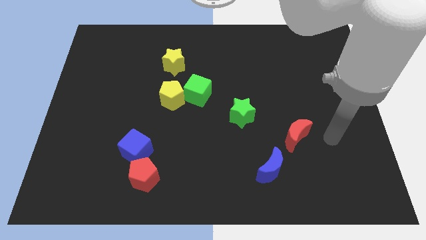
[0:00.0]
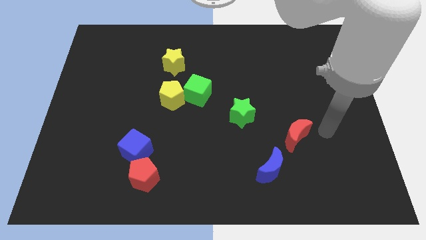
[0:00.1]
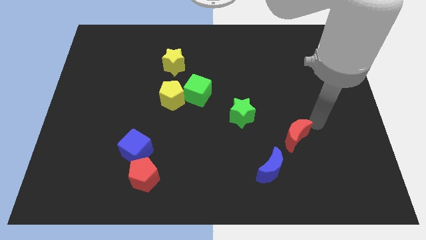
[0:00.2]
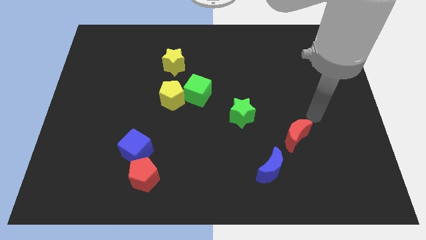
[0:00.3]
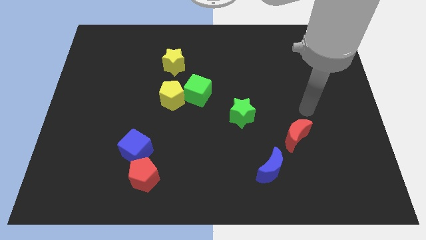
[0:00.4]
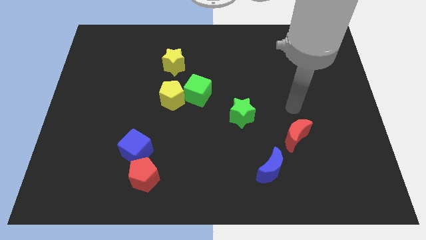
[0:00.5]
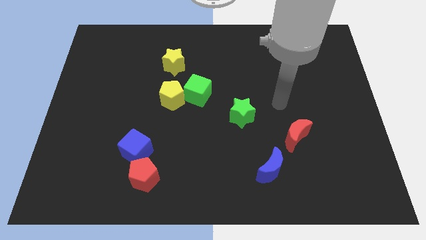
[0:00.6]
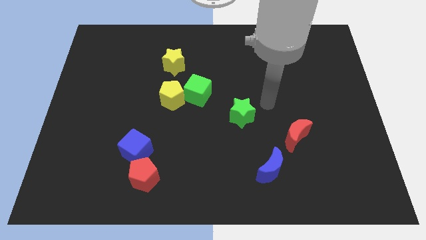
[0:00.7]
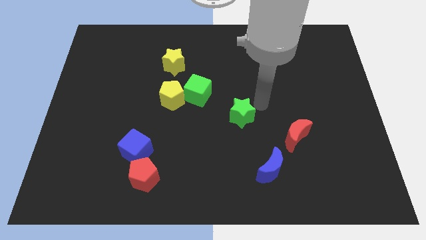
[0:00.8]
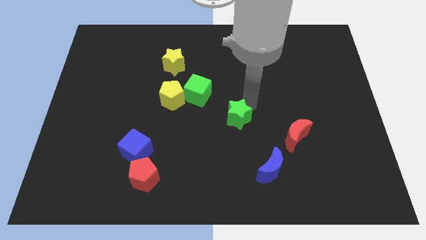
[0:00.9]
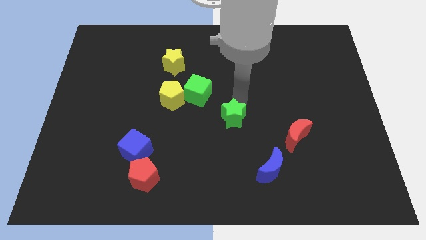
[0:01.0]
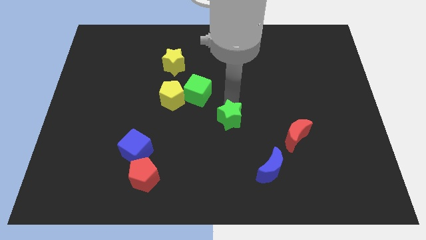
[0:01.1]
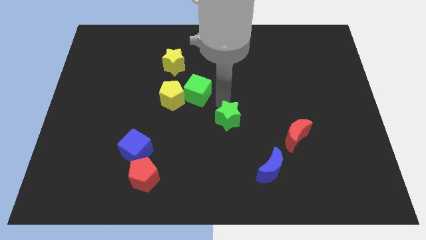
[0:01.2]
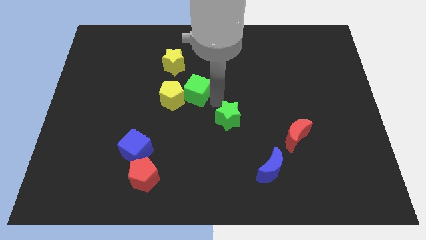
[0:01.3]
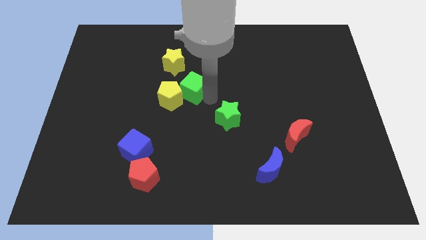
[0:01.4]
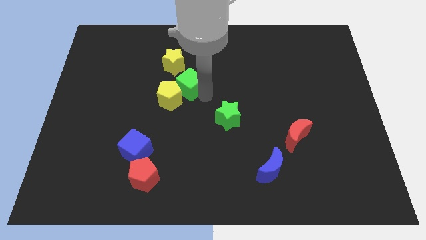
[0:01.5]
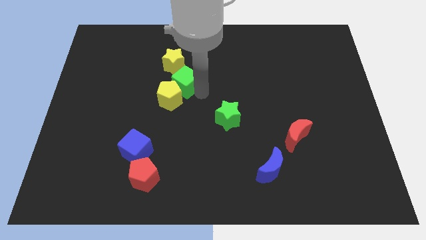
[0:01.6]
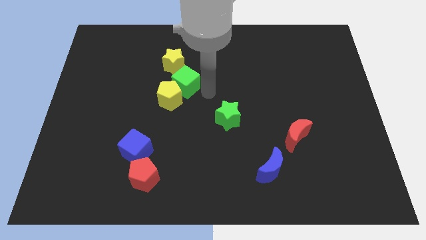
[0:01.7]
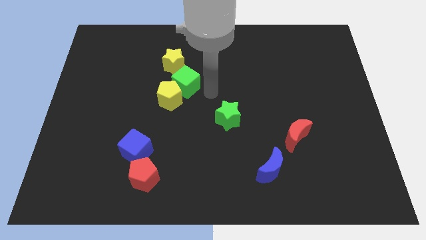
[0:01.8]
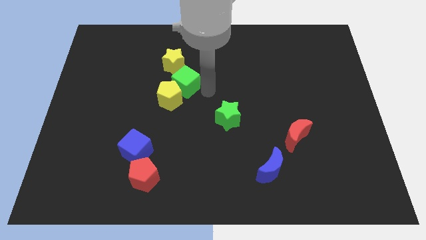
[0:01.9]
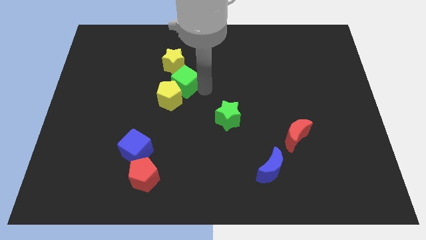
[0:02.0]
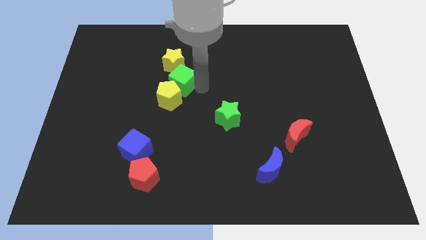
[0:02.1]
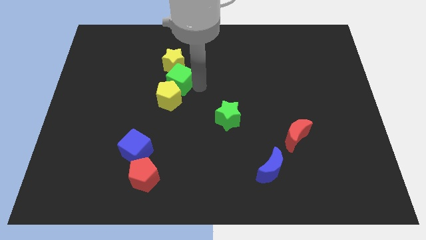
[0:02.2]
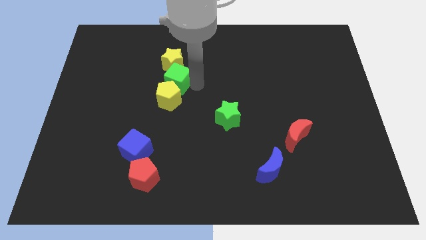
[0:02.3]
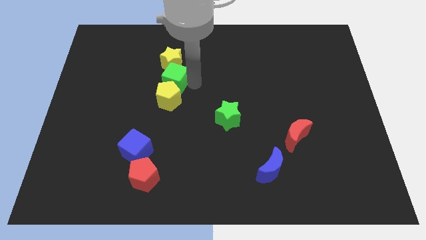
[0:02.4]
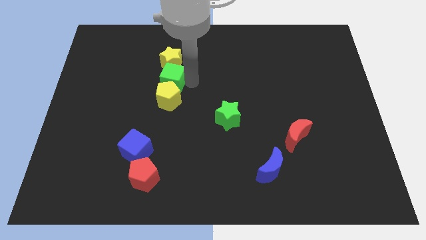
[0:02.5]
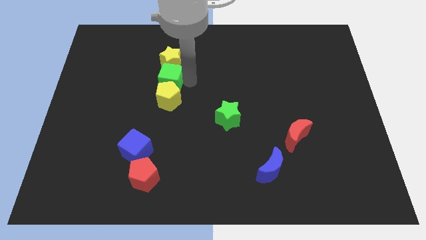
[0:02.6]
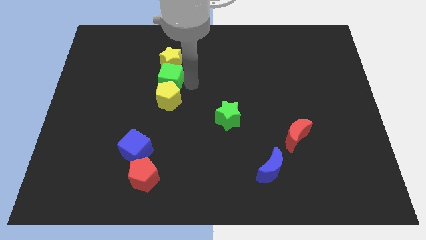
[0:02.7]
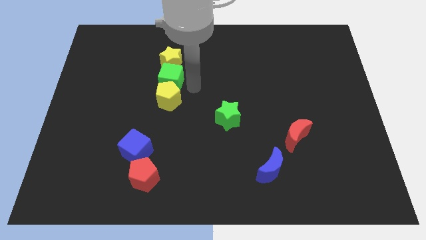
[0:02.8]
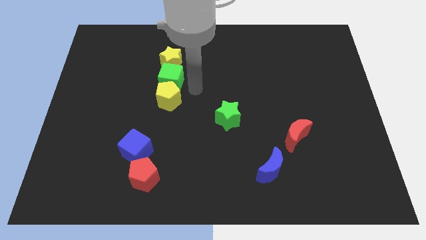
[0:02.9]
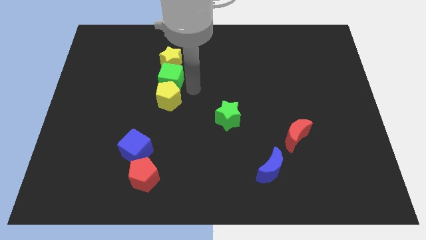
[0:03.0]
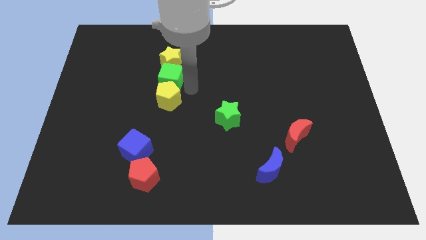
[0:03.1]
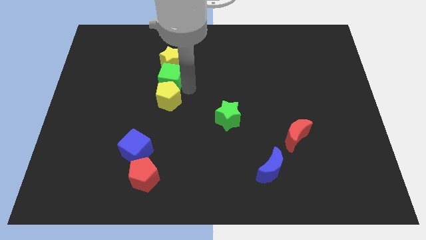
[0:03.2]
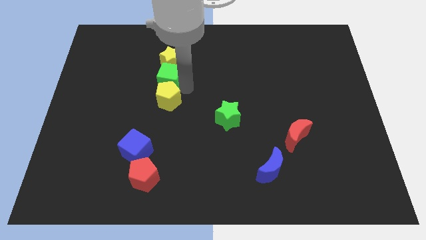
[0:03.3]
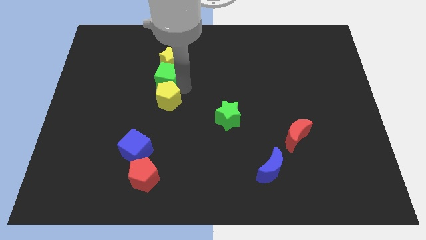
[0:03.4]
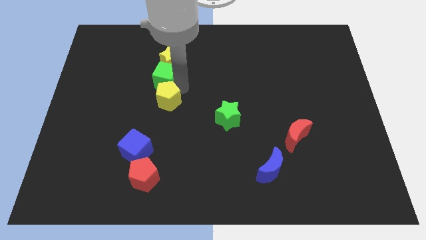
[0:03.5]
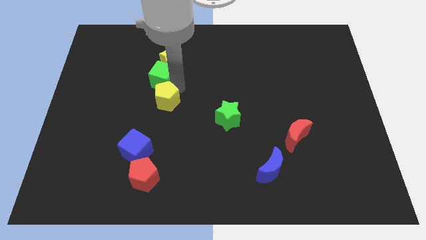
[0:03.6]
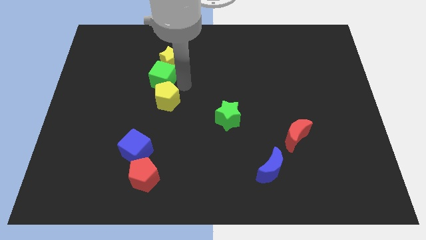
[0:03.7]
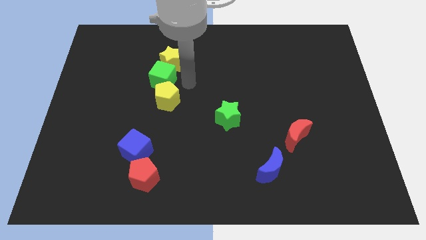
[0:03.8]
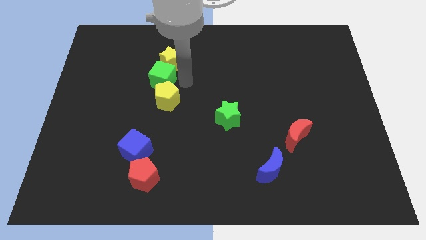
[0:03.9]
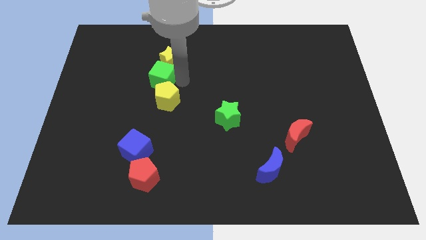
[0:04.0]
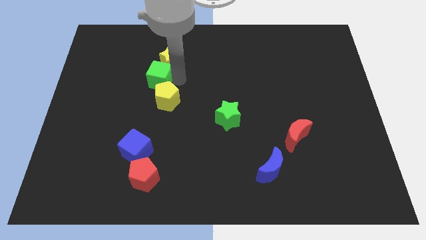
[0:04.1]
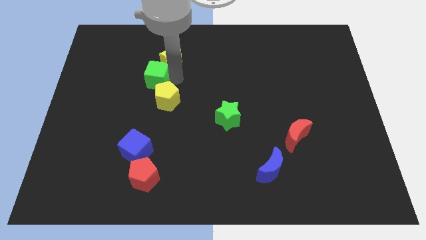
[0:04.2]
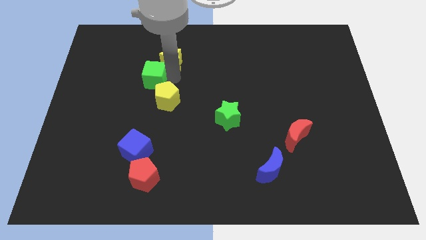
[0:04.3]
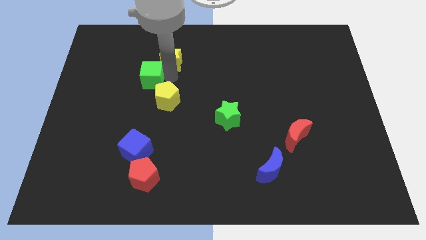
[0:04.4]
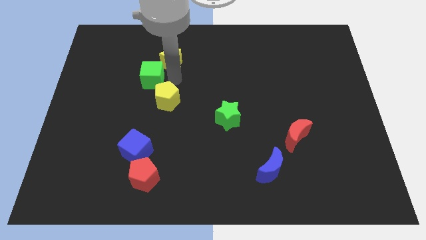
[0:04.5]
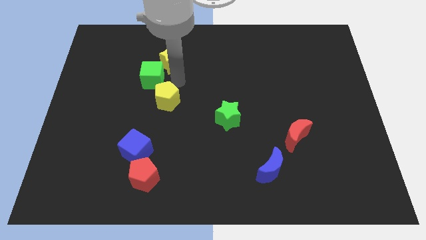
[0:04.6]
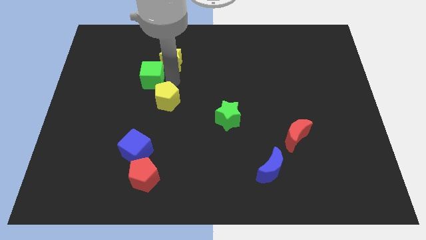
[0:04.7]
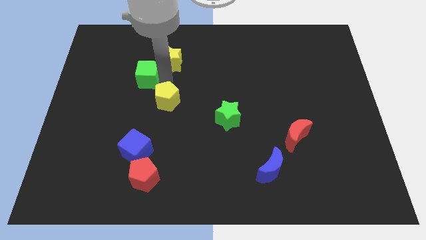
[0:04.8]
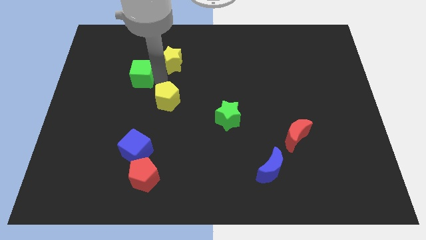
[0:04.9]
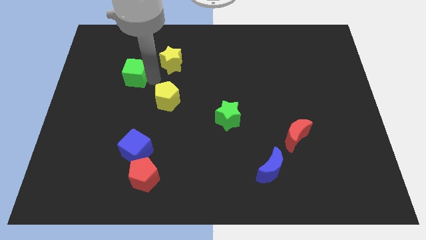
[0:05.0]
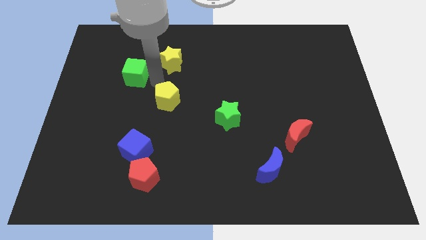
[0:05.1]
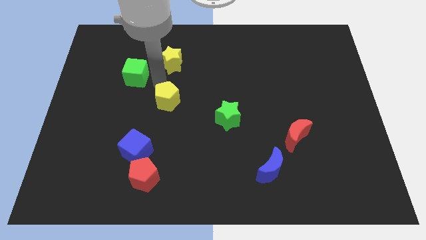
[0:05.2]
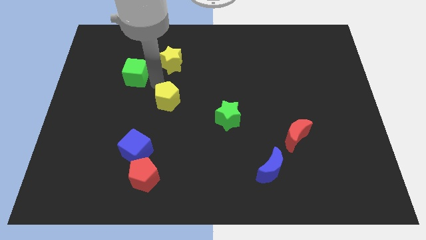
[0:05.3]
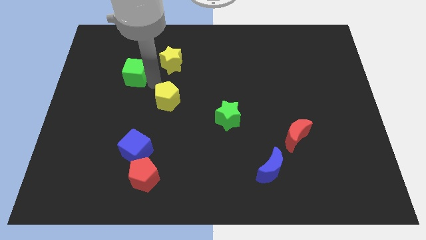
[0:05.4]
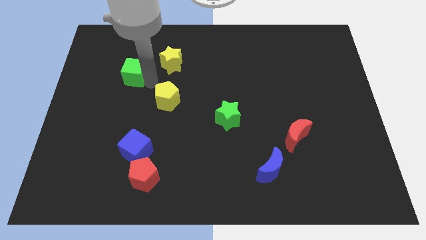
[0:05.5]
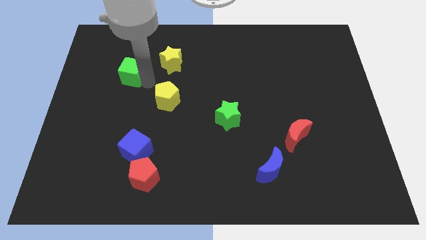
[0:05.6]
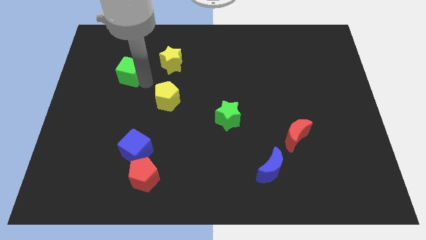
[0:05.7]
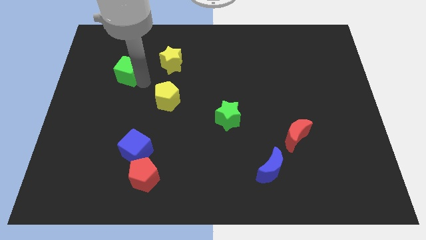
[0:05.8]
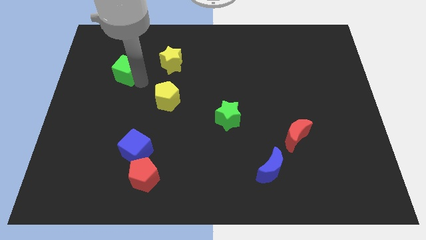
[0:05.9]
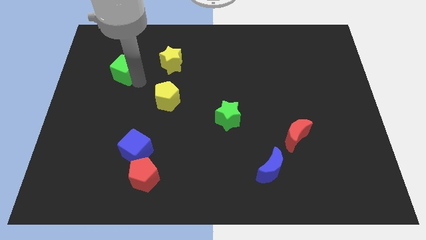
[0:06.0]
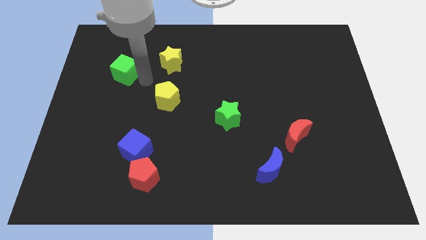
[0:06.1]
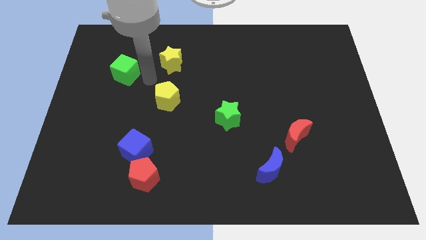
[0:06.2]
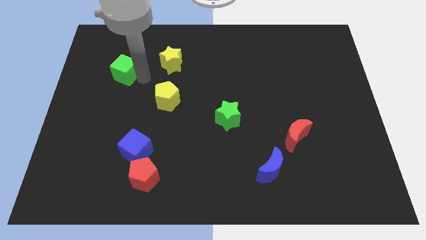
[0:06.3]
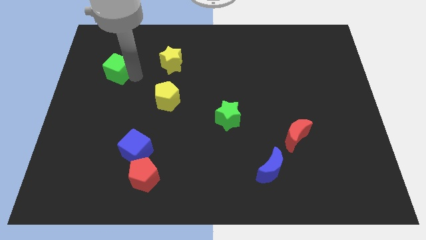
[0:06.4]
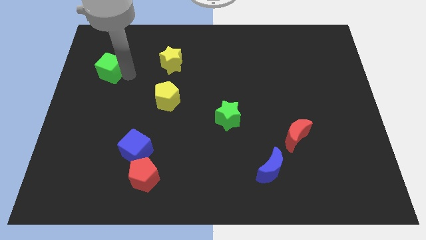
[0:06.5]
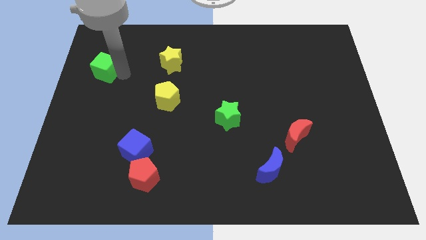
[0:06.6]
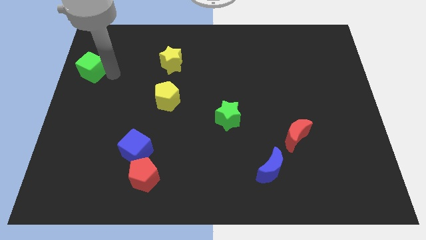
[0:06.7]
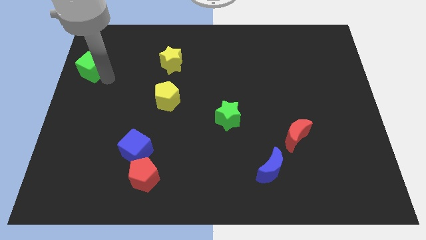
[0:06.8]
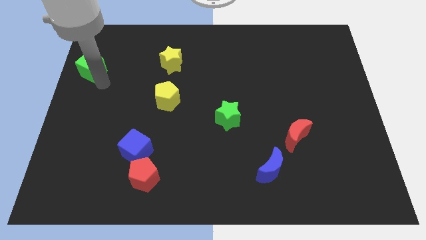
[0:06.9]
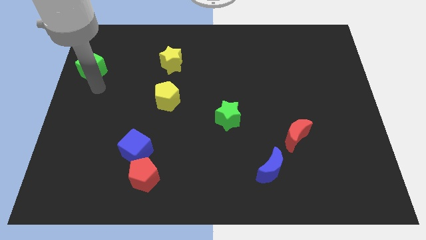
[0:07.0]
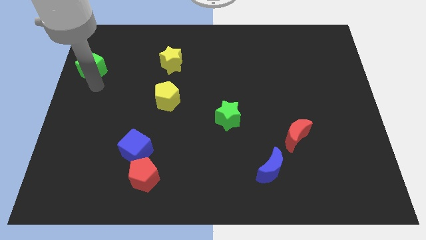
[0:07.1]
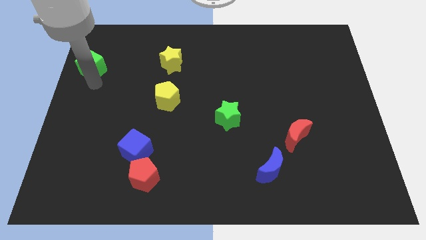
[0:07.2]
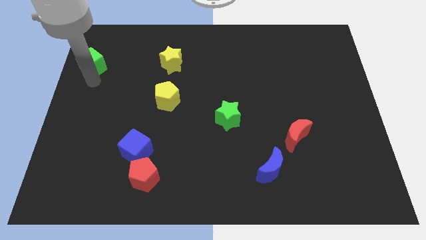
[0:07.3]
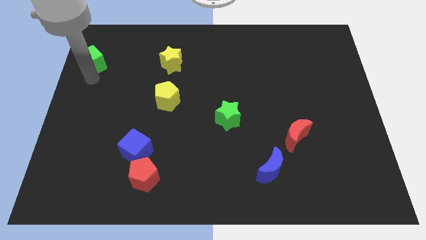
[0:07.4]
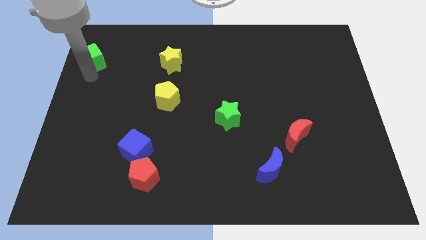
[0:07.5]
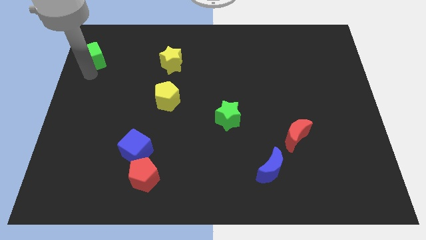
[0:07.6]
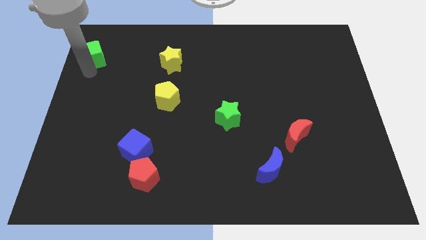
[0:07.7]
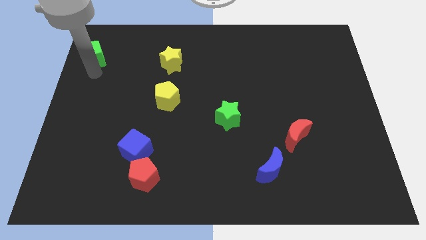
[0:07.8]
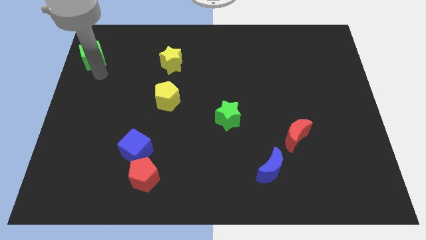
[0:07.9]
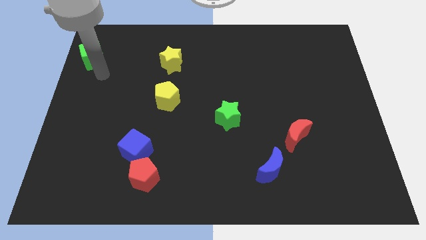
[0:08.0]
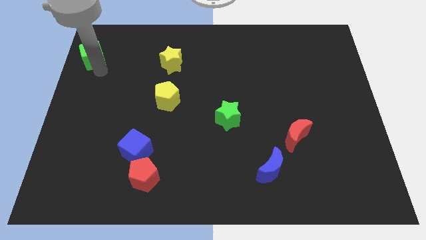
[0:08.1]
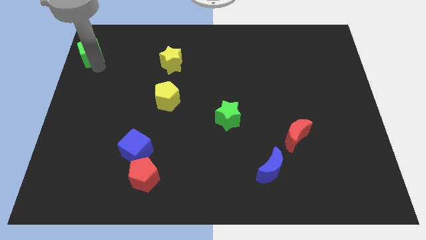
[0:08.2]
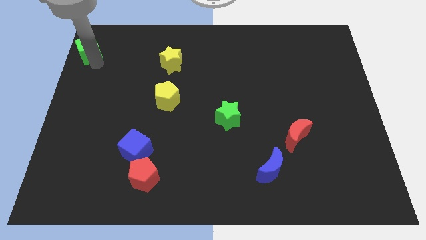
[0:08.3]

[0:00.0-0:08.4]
push the green cube to the top left corner
